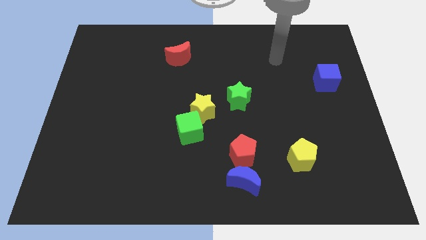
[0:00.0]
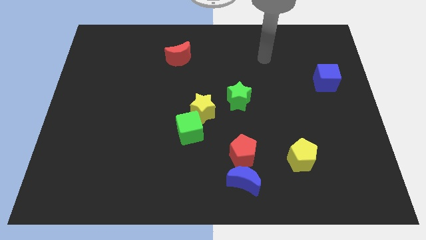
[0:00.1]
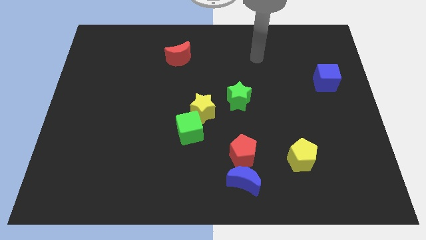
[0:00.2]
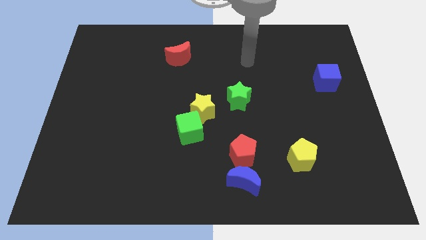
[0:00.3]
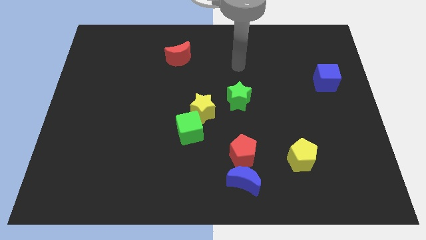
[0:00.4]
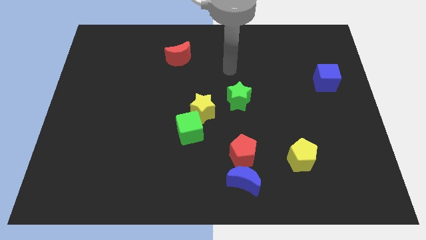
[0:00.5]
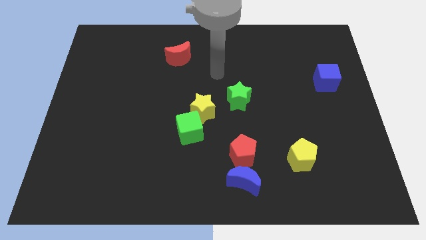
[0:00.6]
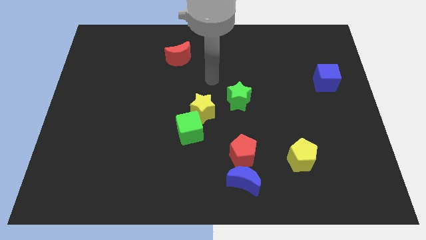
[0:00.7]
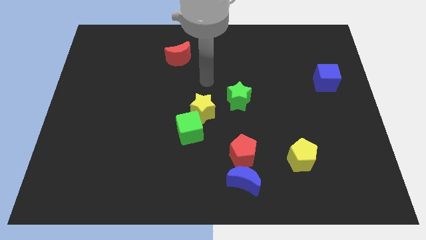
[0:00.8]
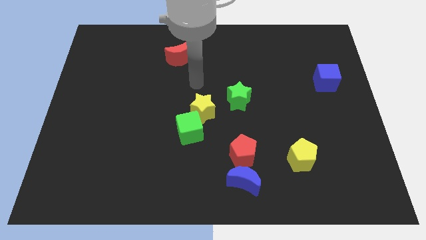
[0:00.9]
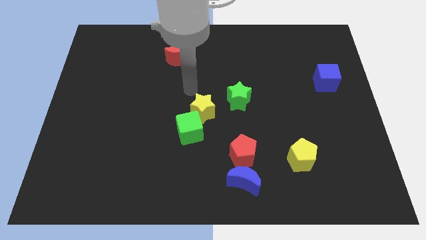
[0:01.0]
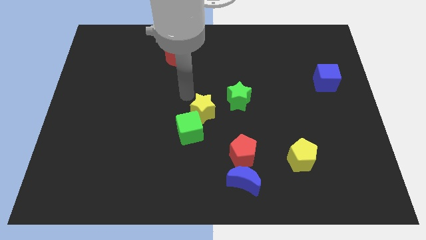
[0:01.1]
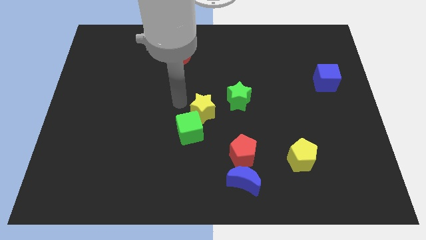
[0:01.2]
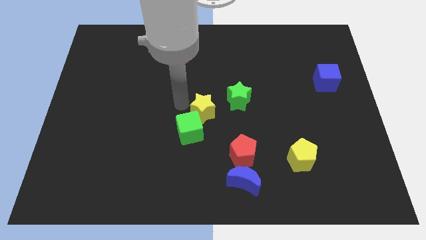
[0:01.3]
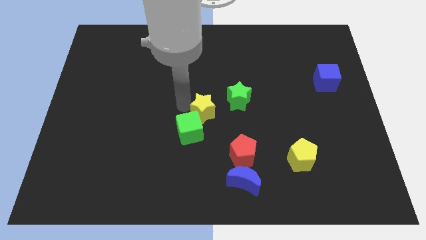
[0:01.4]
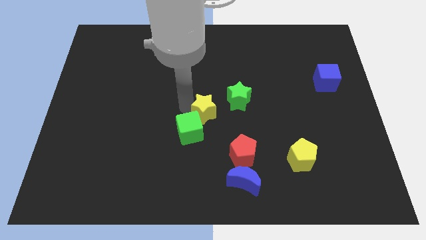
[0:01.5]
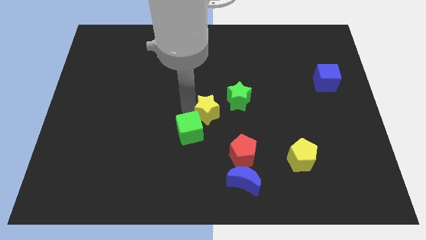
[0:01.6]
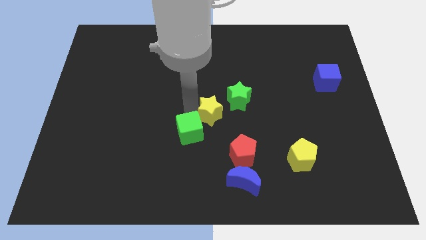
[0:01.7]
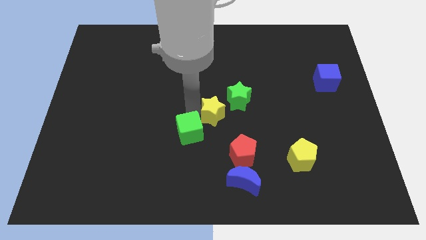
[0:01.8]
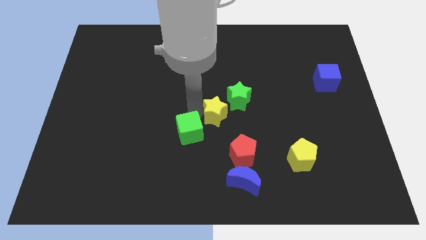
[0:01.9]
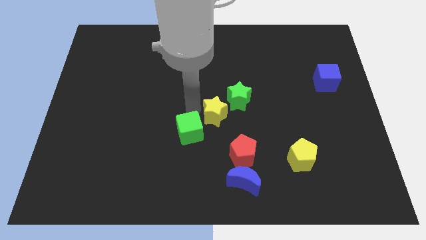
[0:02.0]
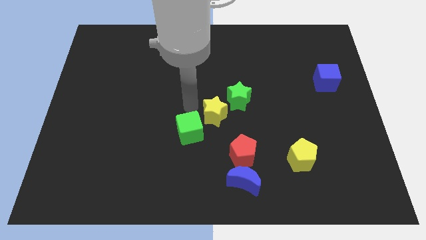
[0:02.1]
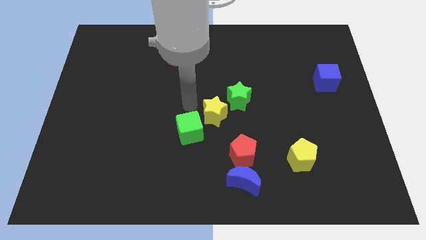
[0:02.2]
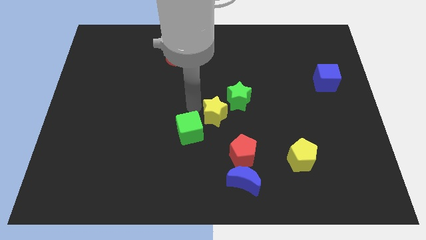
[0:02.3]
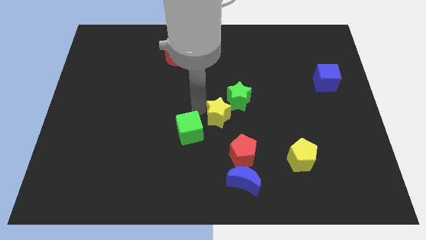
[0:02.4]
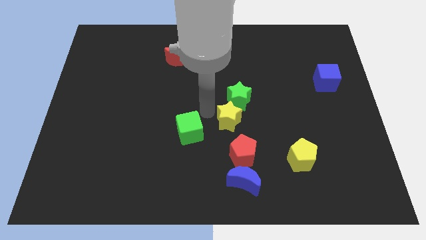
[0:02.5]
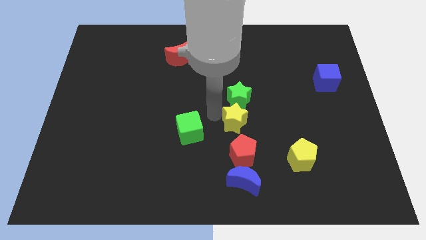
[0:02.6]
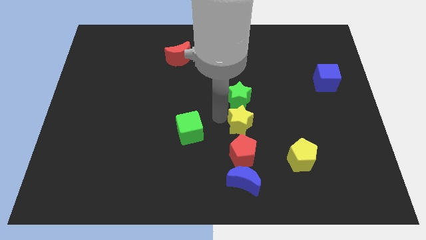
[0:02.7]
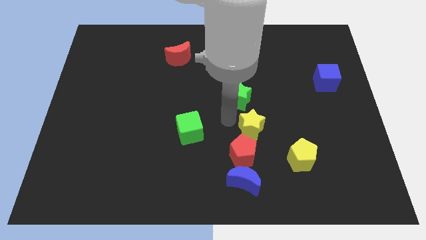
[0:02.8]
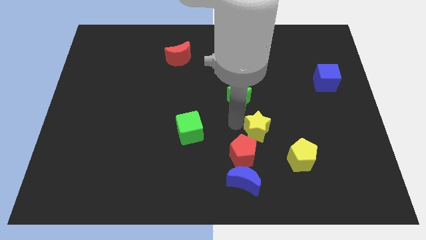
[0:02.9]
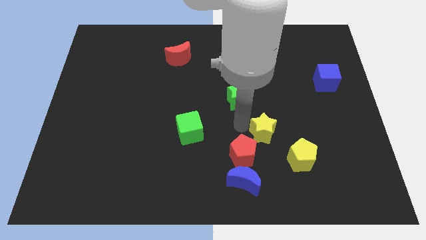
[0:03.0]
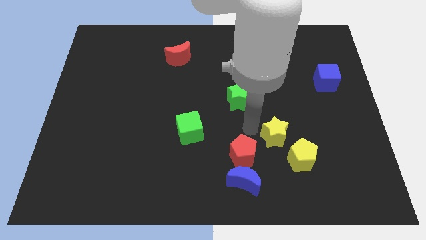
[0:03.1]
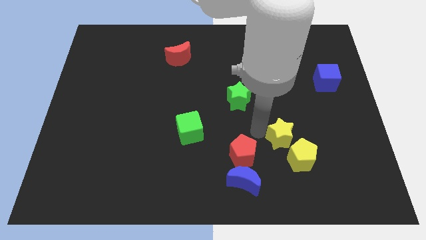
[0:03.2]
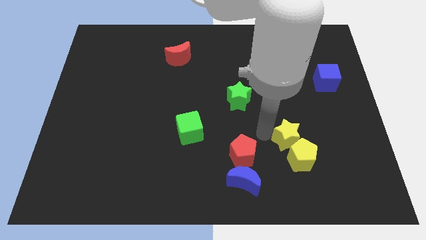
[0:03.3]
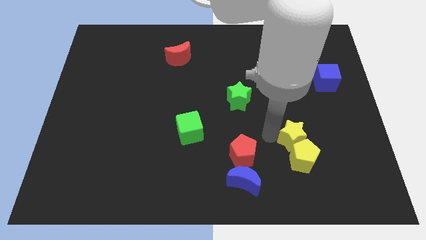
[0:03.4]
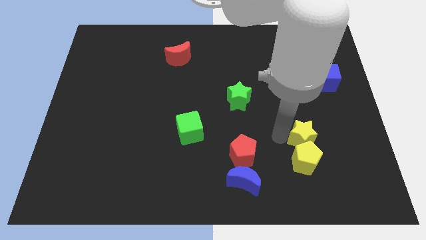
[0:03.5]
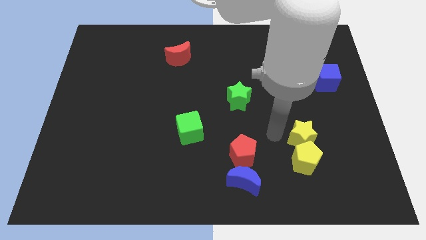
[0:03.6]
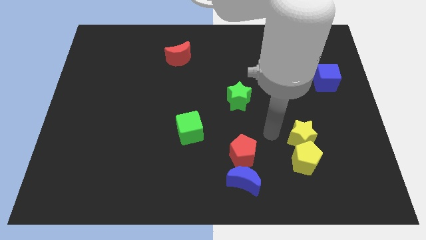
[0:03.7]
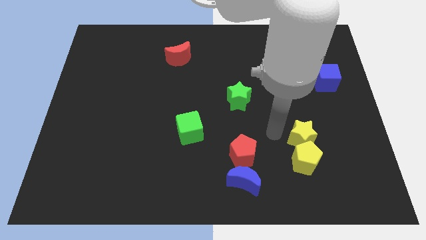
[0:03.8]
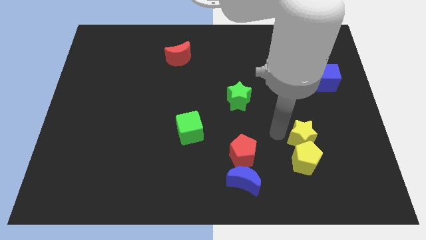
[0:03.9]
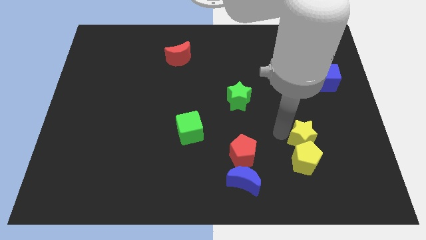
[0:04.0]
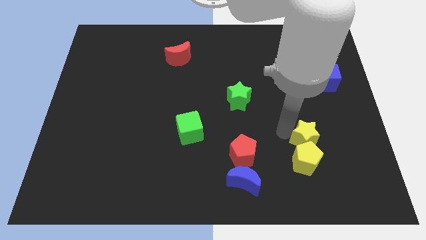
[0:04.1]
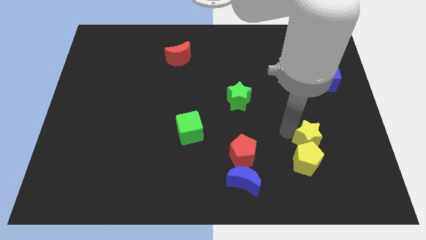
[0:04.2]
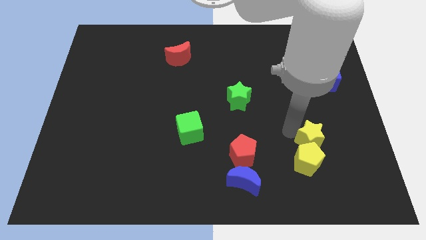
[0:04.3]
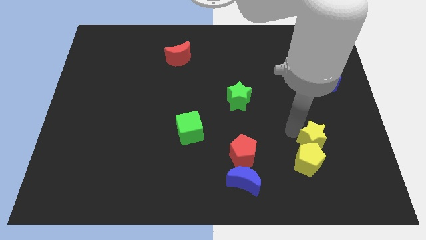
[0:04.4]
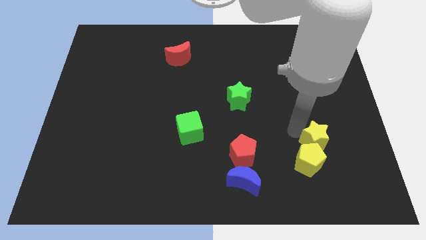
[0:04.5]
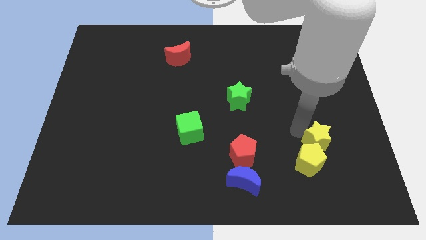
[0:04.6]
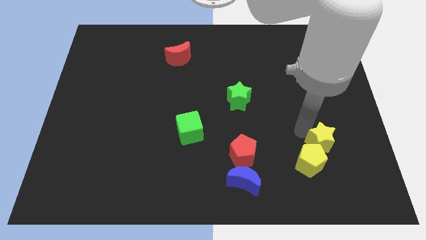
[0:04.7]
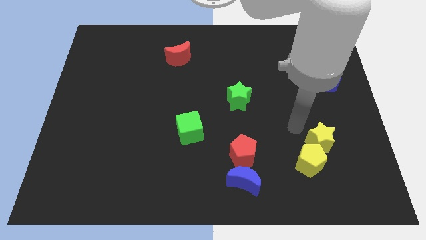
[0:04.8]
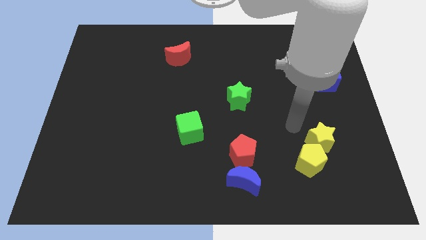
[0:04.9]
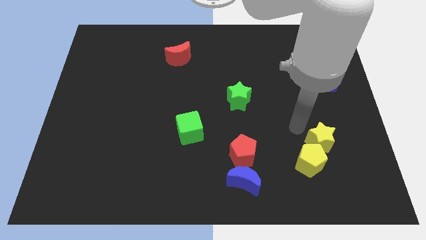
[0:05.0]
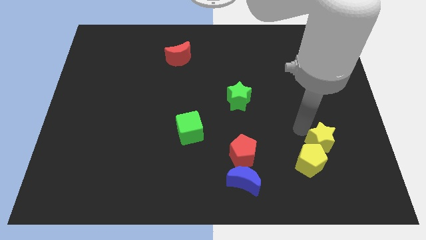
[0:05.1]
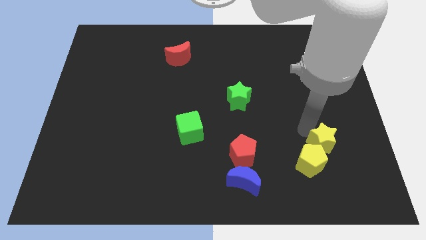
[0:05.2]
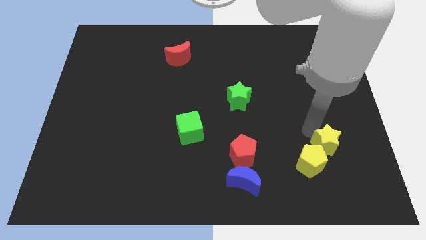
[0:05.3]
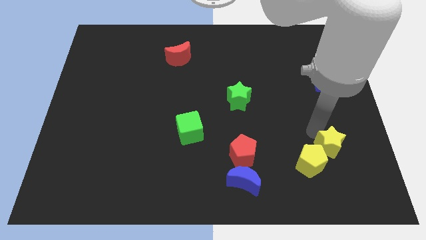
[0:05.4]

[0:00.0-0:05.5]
move the yellow star to the right side of the yellow pentagon

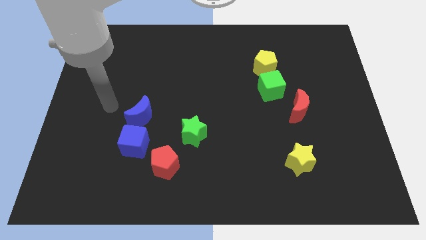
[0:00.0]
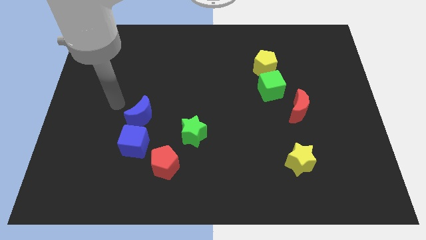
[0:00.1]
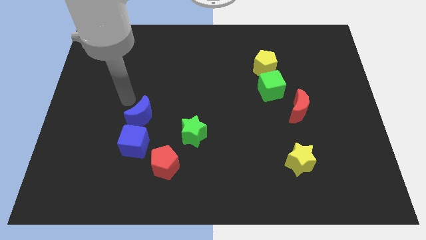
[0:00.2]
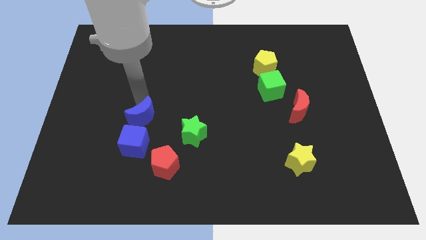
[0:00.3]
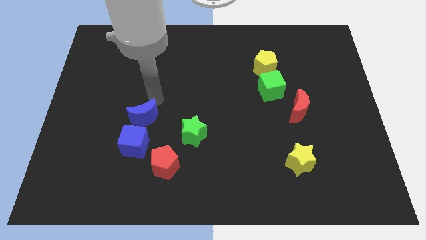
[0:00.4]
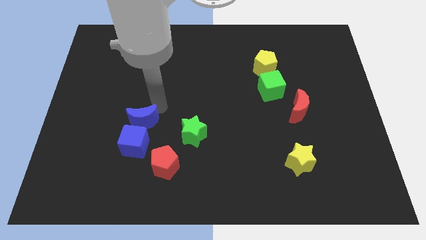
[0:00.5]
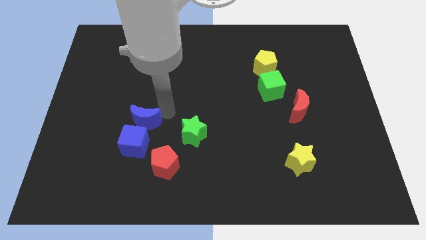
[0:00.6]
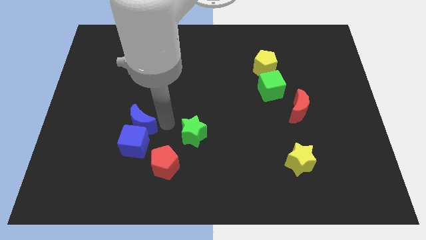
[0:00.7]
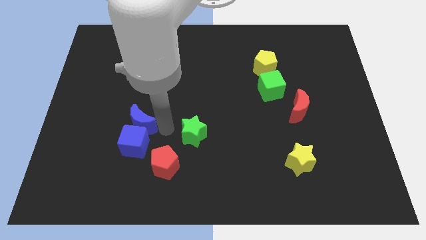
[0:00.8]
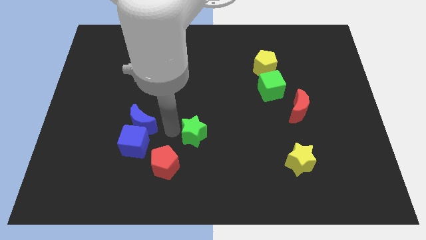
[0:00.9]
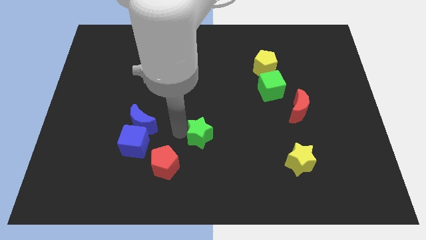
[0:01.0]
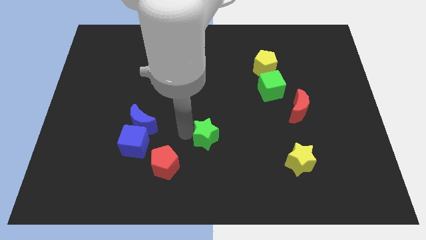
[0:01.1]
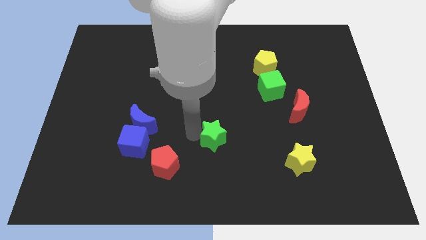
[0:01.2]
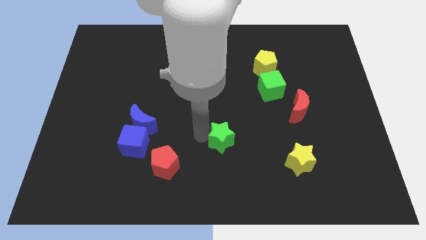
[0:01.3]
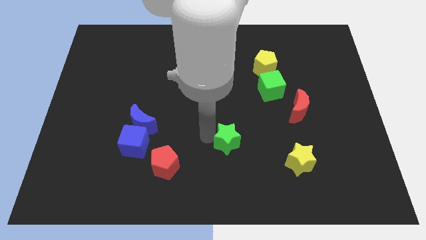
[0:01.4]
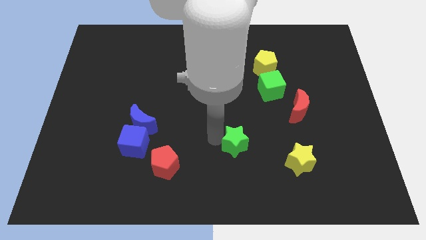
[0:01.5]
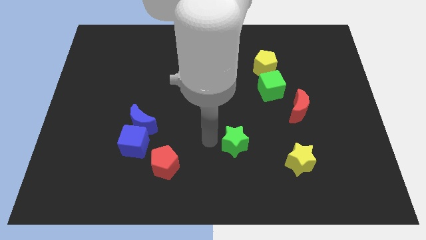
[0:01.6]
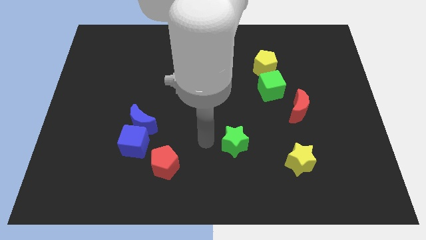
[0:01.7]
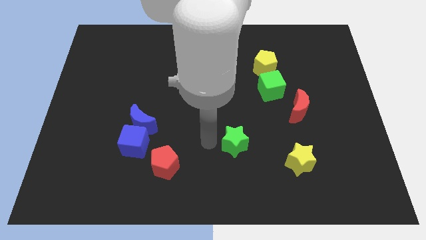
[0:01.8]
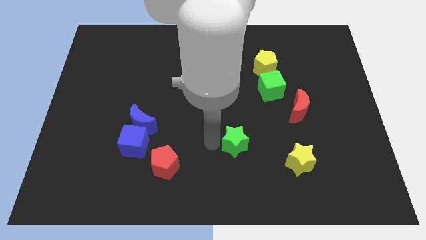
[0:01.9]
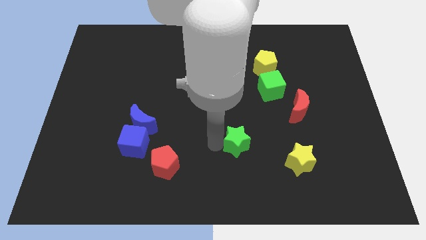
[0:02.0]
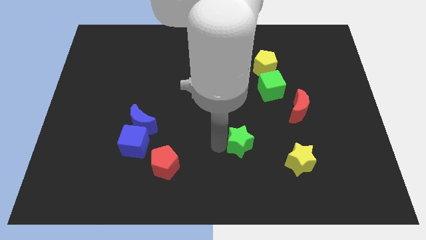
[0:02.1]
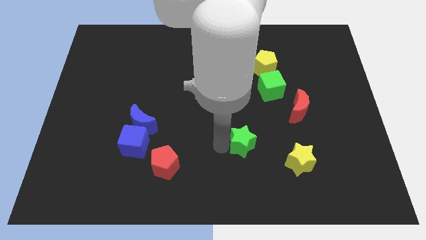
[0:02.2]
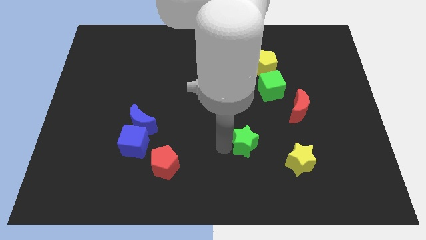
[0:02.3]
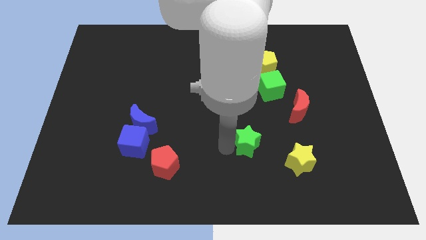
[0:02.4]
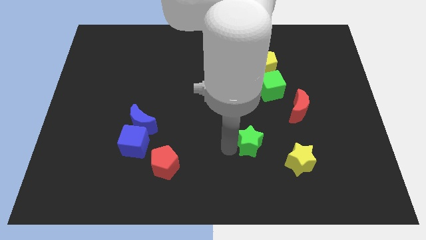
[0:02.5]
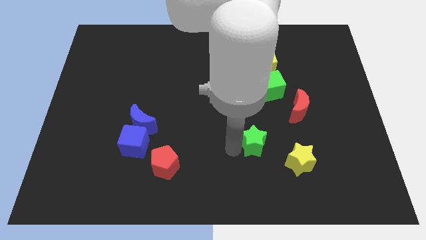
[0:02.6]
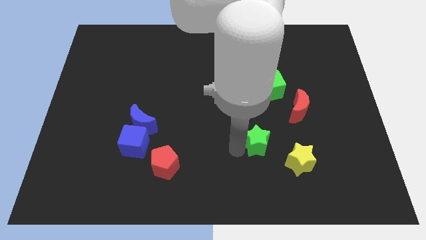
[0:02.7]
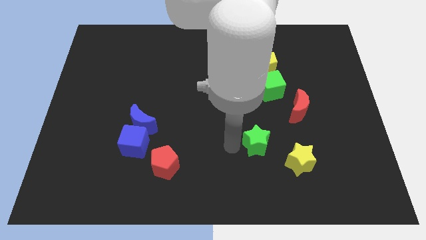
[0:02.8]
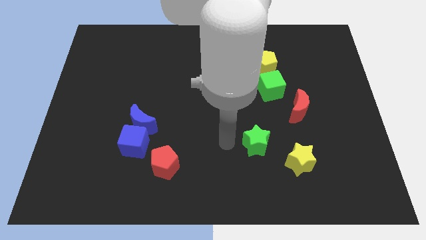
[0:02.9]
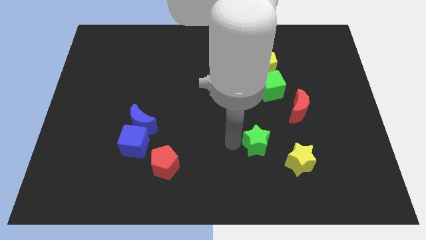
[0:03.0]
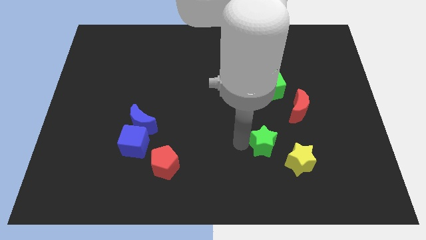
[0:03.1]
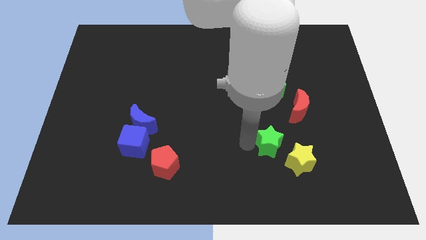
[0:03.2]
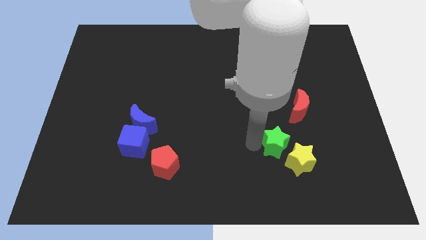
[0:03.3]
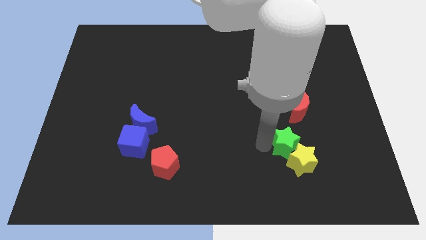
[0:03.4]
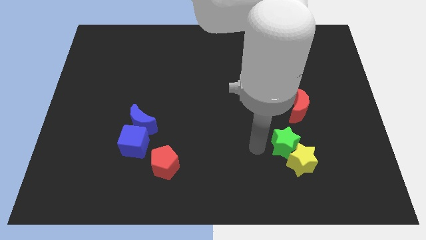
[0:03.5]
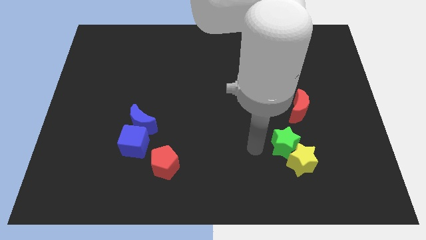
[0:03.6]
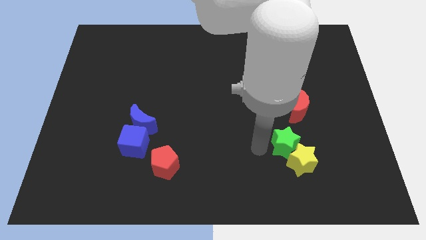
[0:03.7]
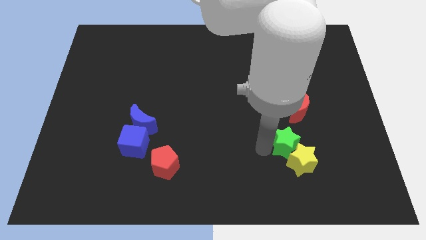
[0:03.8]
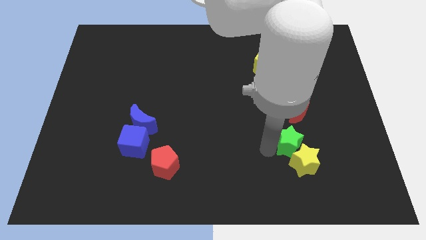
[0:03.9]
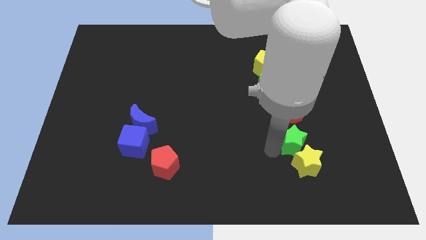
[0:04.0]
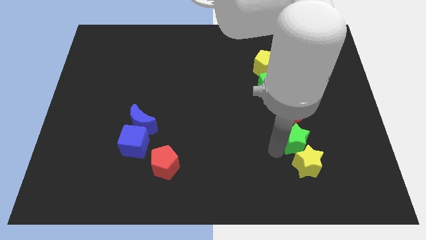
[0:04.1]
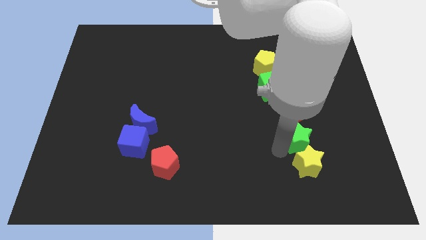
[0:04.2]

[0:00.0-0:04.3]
move the green star to the top right of the yellow star
